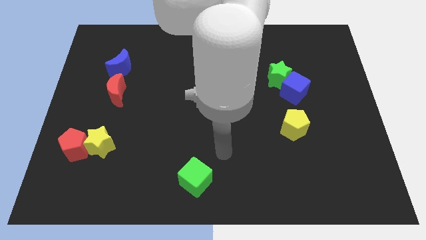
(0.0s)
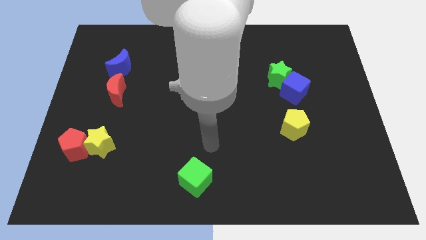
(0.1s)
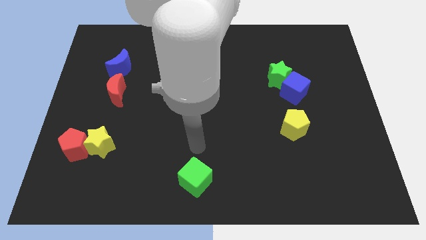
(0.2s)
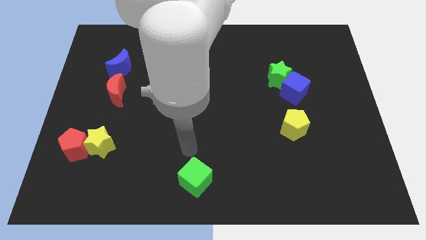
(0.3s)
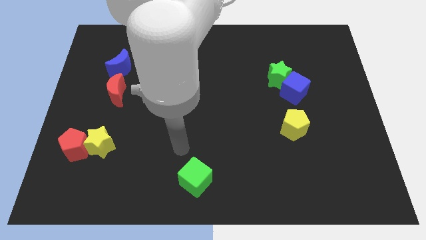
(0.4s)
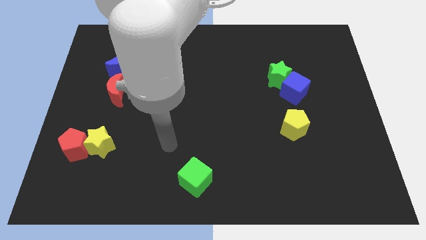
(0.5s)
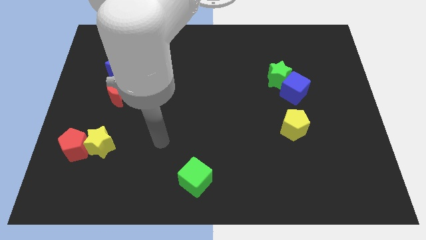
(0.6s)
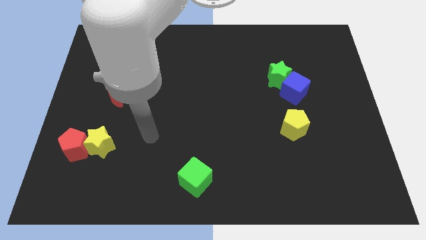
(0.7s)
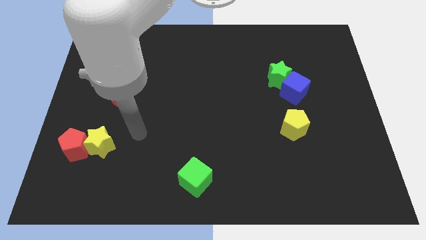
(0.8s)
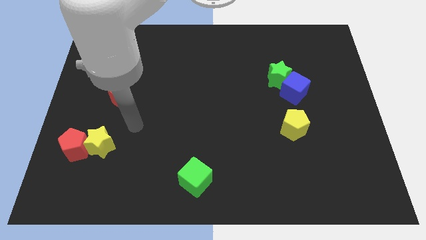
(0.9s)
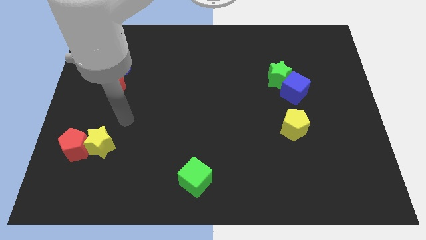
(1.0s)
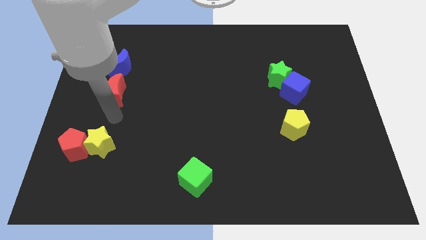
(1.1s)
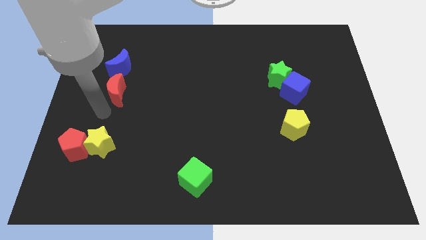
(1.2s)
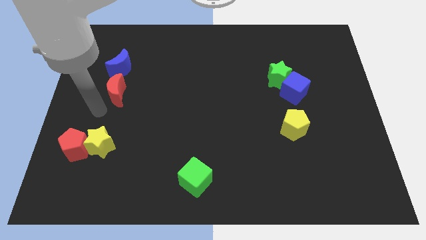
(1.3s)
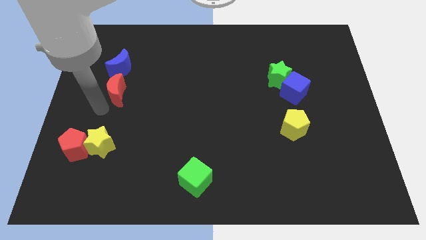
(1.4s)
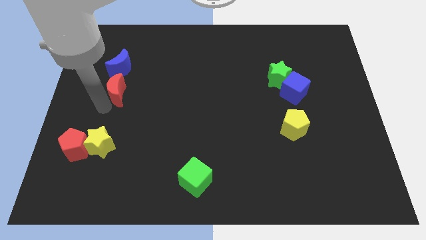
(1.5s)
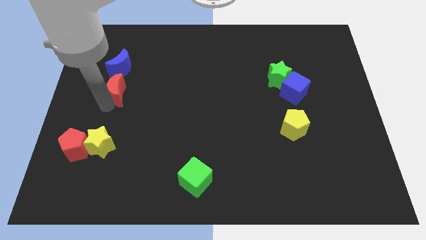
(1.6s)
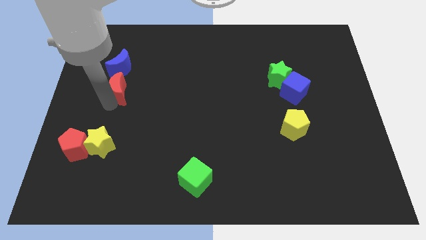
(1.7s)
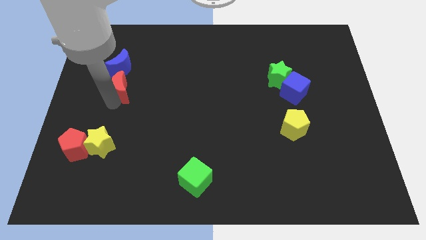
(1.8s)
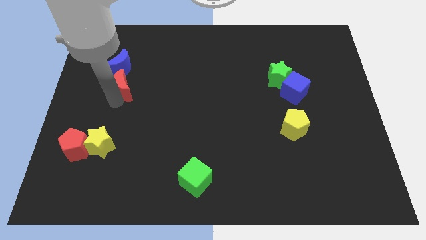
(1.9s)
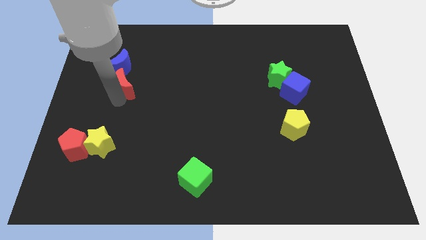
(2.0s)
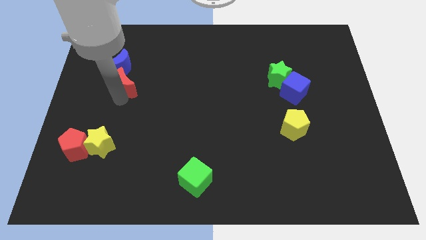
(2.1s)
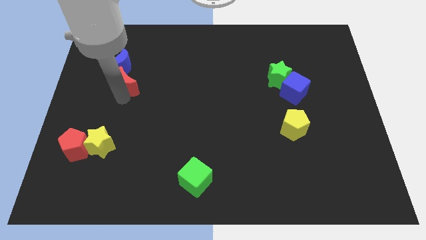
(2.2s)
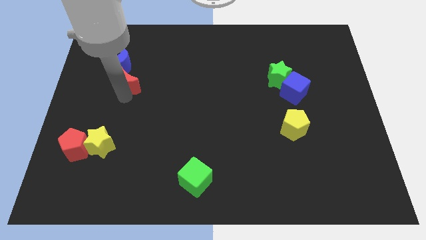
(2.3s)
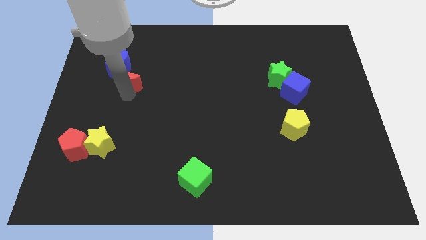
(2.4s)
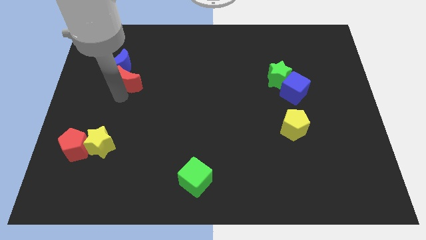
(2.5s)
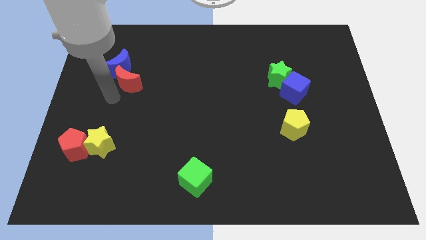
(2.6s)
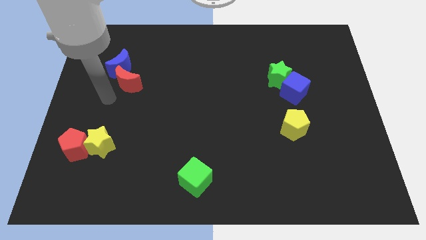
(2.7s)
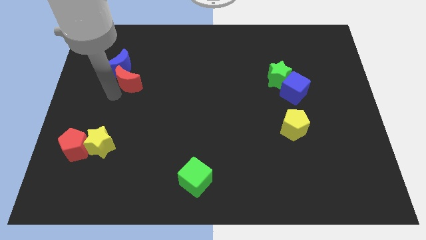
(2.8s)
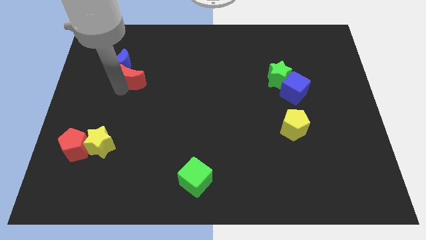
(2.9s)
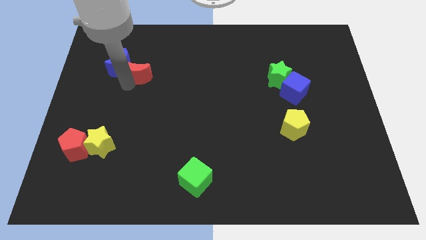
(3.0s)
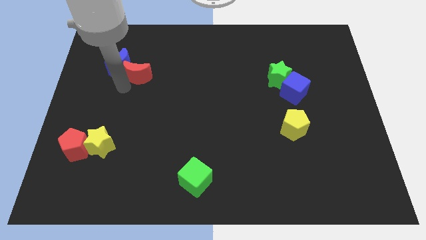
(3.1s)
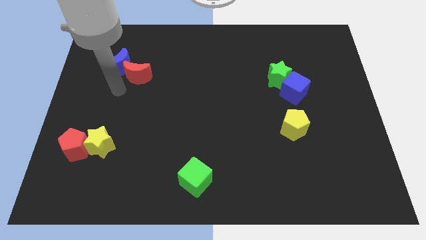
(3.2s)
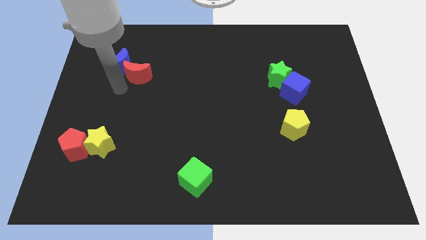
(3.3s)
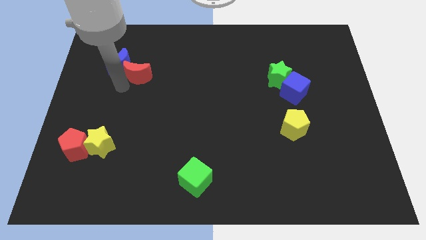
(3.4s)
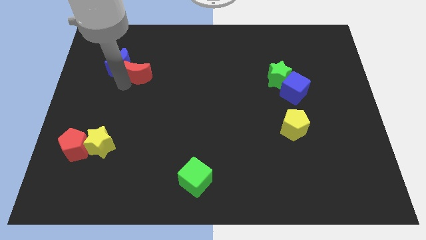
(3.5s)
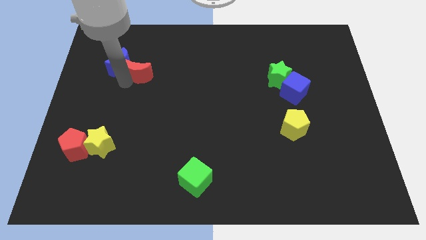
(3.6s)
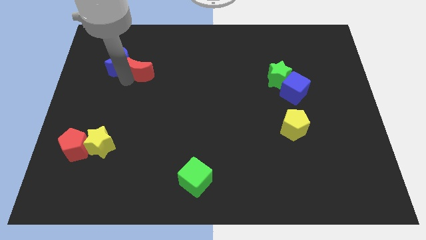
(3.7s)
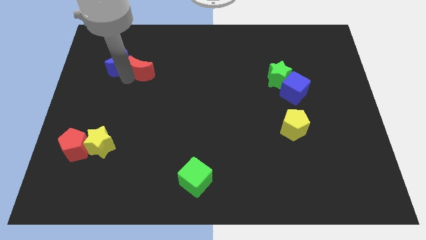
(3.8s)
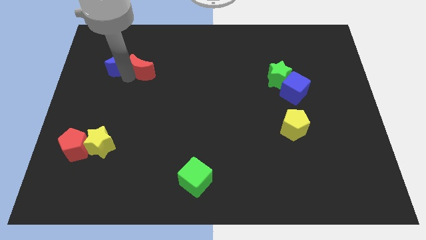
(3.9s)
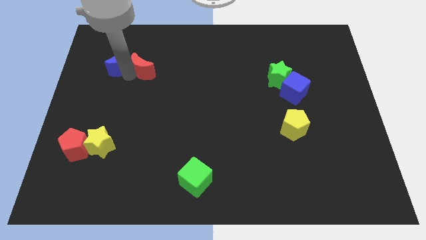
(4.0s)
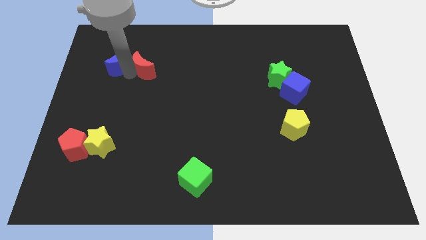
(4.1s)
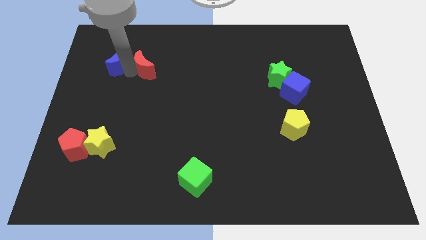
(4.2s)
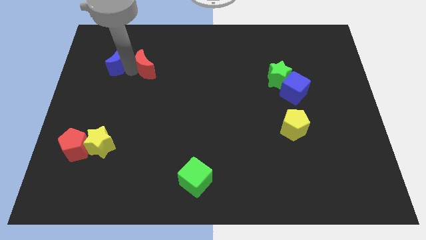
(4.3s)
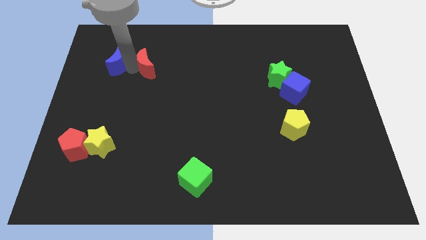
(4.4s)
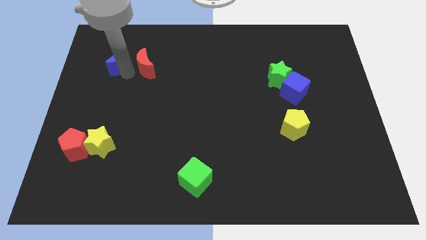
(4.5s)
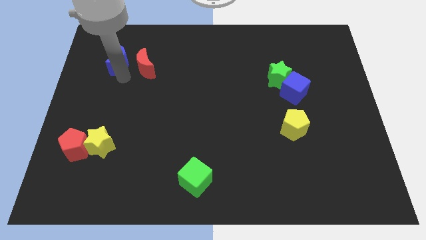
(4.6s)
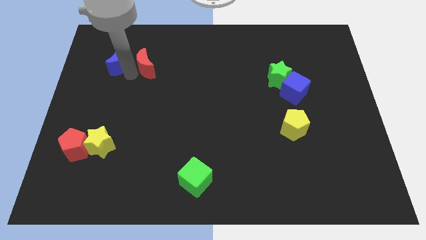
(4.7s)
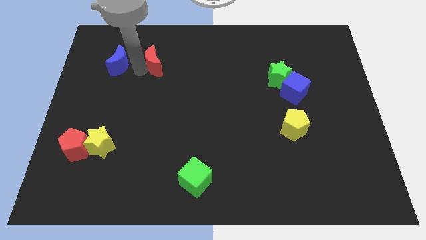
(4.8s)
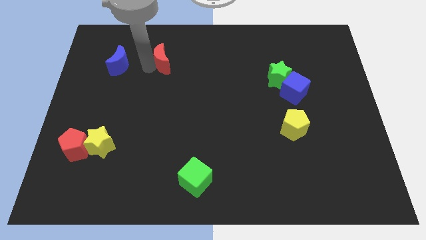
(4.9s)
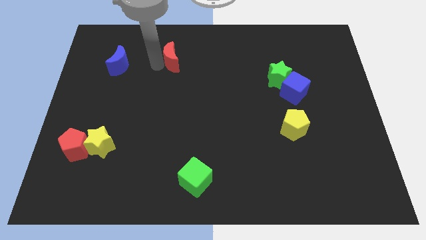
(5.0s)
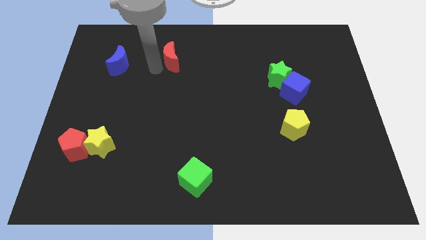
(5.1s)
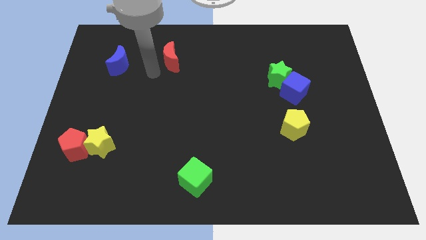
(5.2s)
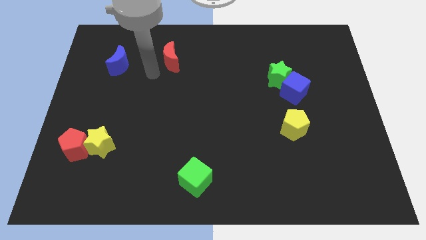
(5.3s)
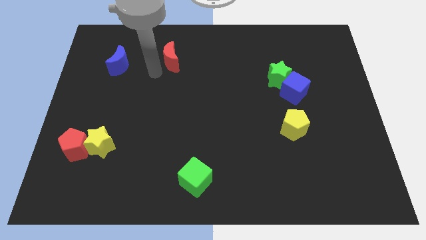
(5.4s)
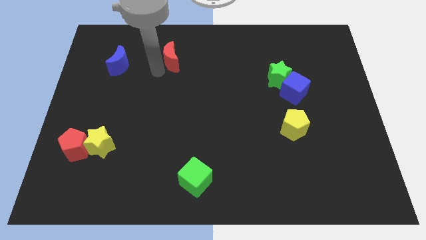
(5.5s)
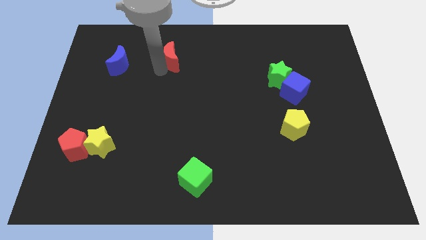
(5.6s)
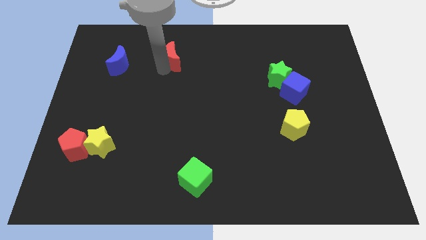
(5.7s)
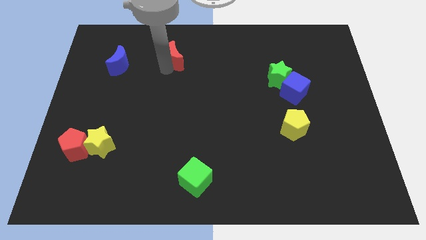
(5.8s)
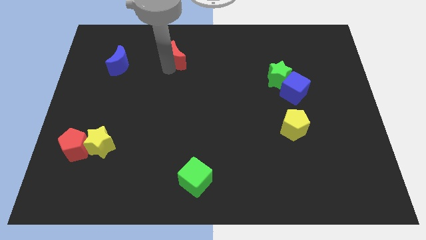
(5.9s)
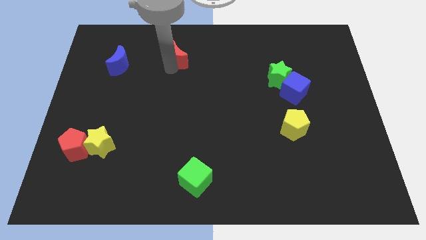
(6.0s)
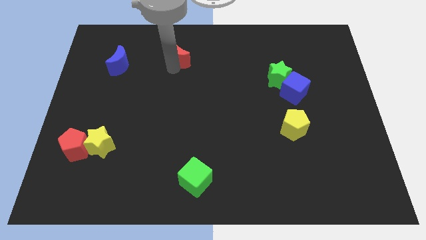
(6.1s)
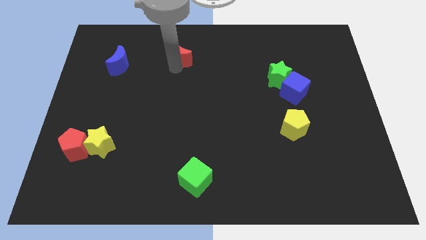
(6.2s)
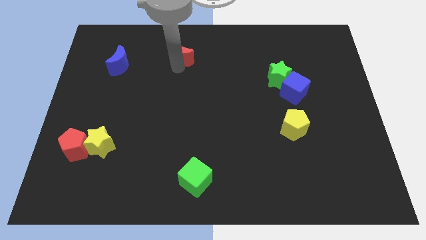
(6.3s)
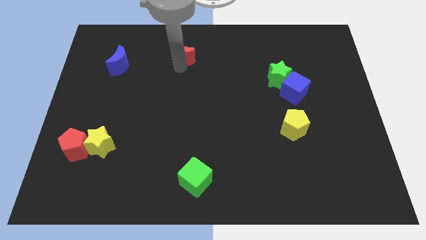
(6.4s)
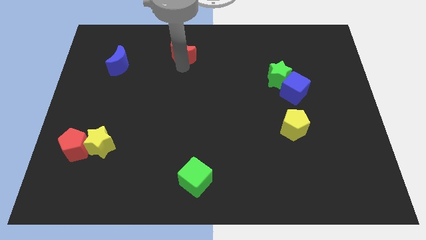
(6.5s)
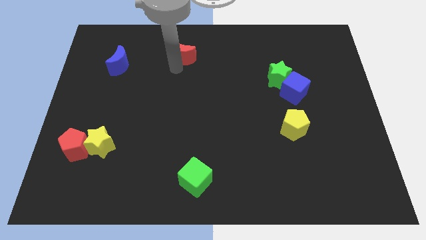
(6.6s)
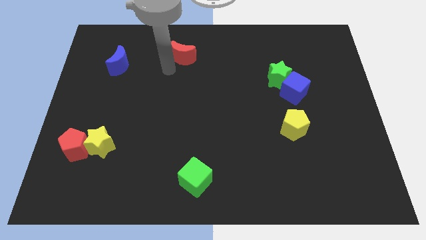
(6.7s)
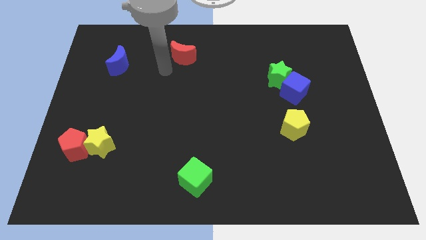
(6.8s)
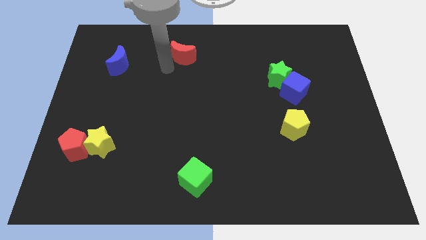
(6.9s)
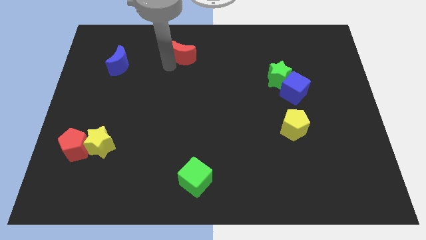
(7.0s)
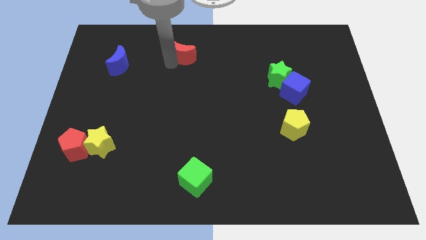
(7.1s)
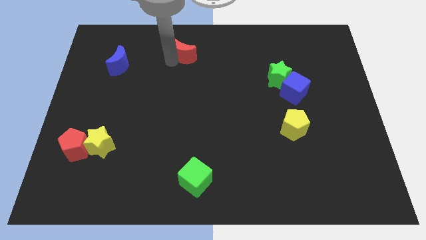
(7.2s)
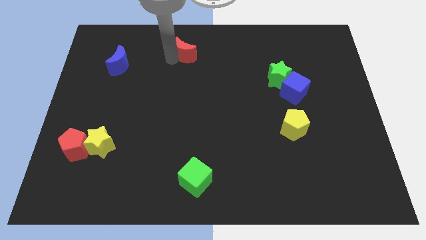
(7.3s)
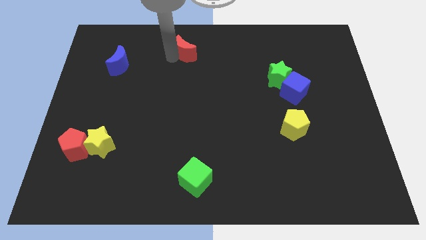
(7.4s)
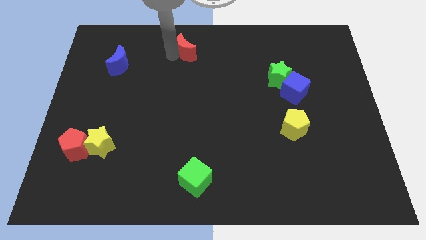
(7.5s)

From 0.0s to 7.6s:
push the red moon to the top side
